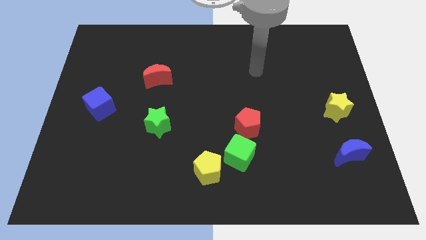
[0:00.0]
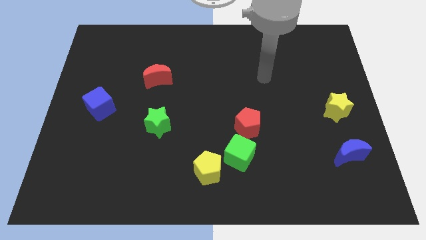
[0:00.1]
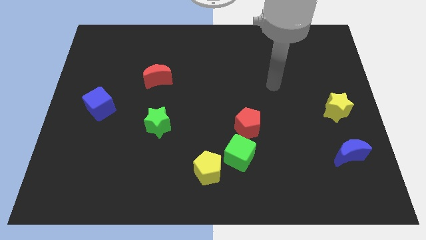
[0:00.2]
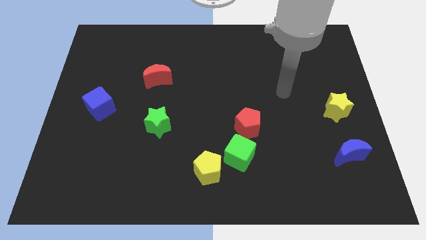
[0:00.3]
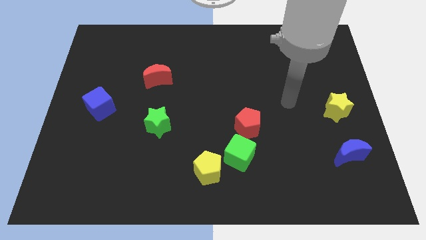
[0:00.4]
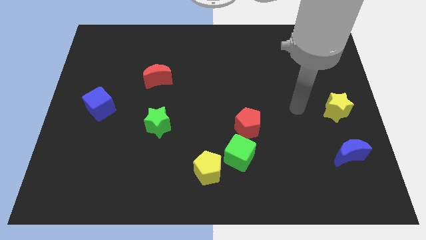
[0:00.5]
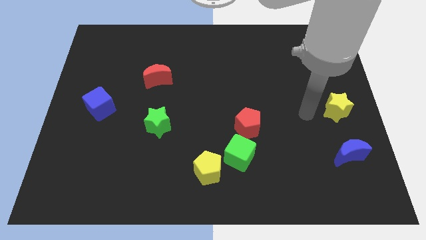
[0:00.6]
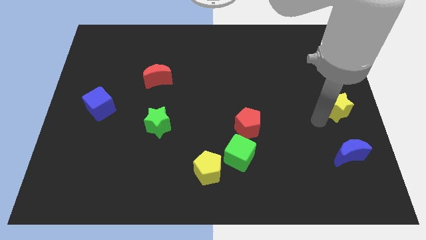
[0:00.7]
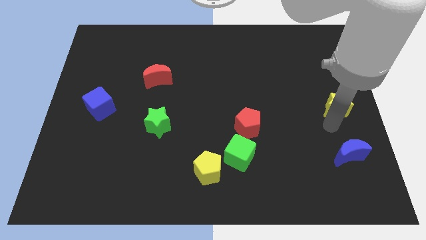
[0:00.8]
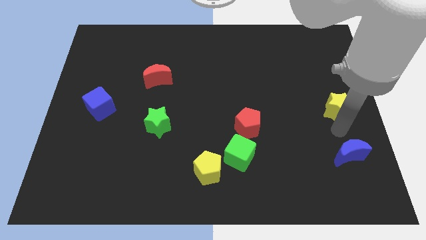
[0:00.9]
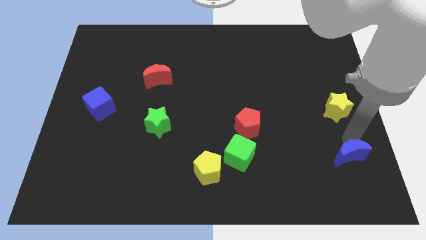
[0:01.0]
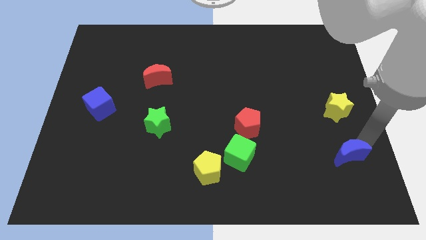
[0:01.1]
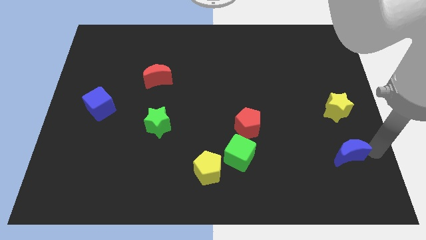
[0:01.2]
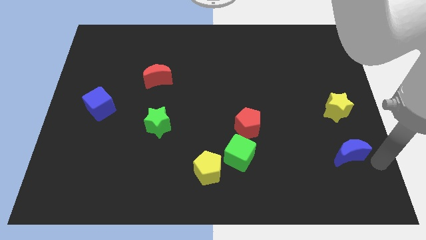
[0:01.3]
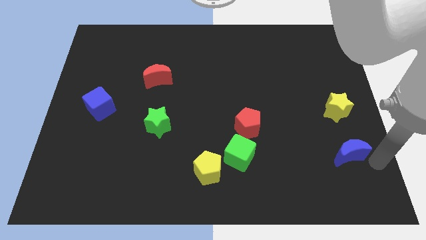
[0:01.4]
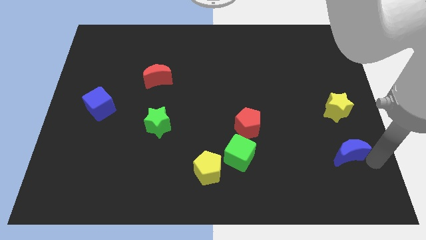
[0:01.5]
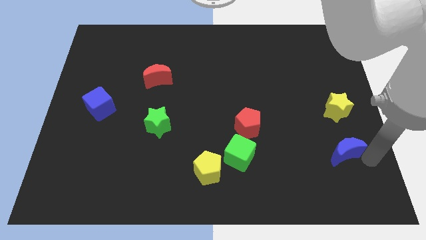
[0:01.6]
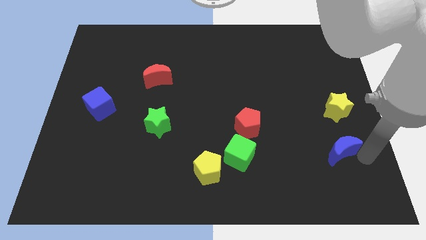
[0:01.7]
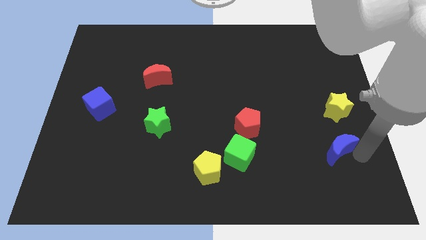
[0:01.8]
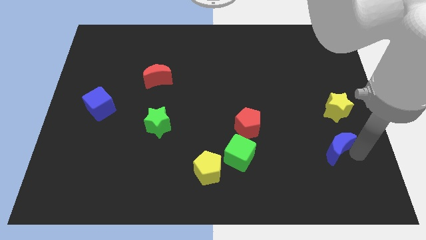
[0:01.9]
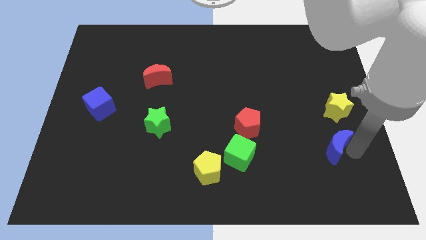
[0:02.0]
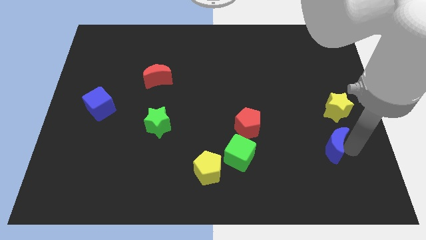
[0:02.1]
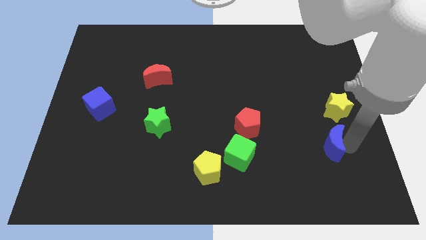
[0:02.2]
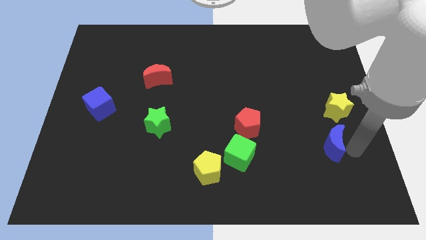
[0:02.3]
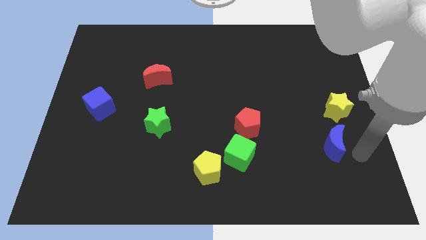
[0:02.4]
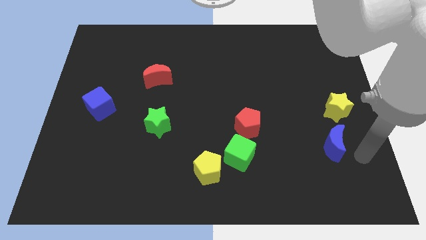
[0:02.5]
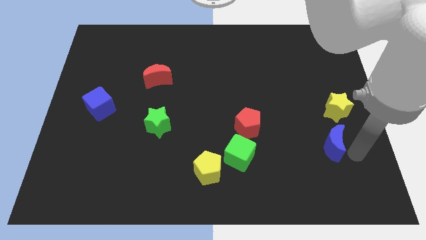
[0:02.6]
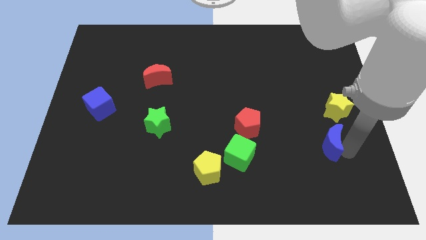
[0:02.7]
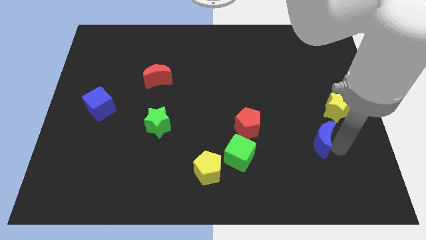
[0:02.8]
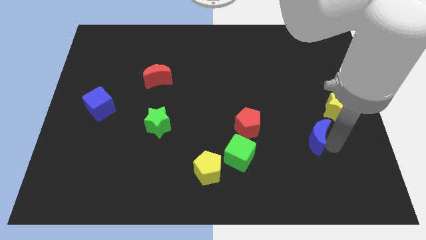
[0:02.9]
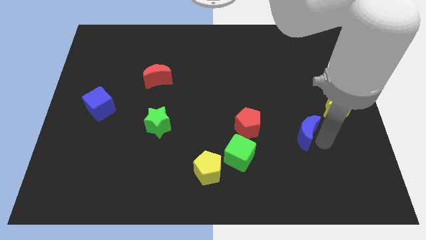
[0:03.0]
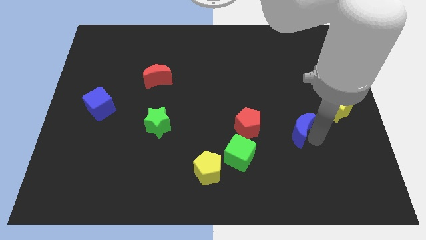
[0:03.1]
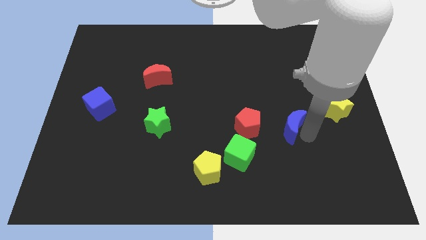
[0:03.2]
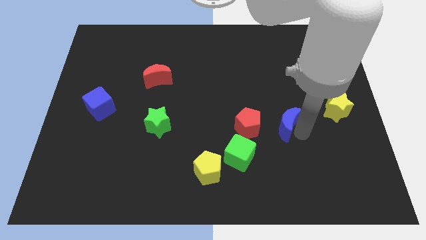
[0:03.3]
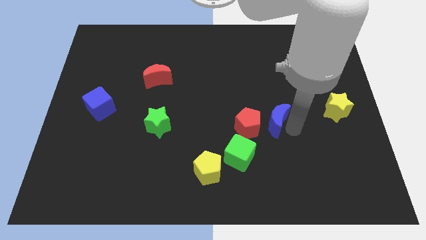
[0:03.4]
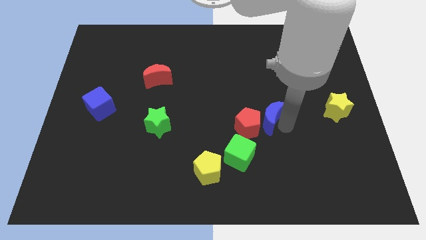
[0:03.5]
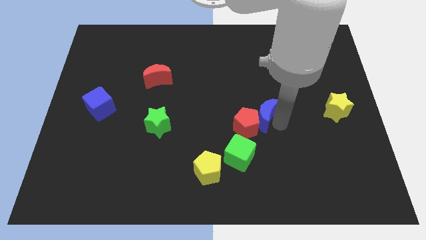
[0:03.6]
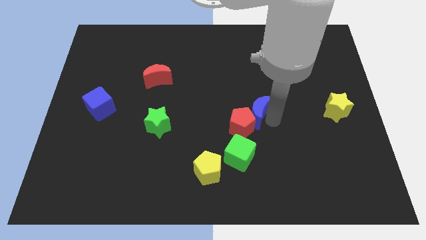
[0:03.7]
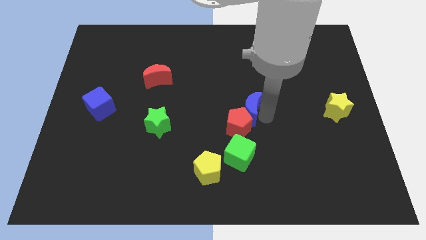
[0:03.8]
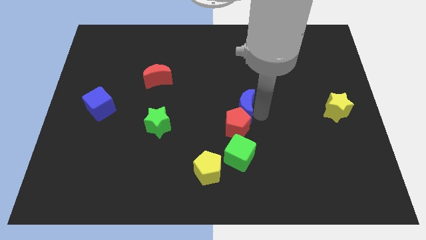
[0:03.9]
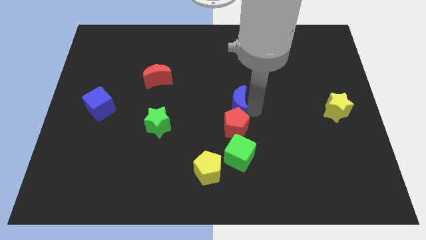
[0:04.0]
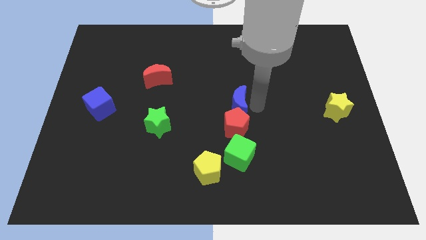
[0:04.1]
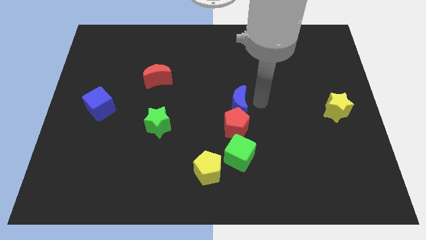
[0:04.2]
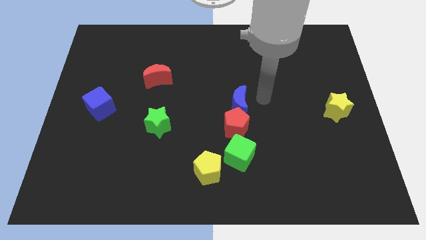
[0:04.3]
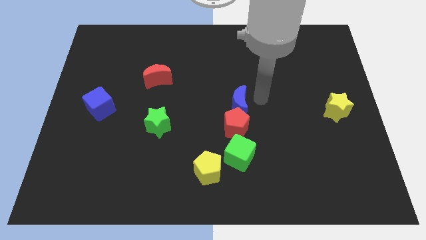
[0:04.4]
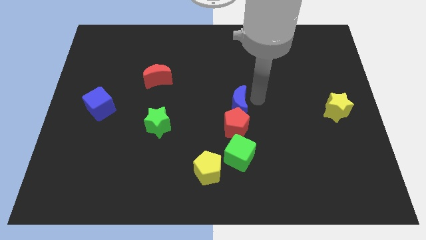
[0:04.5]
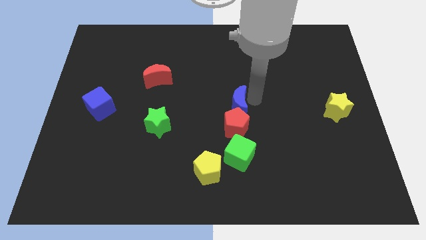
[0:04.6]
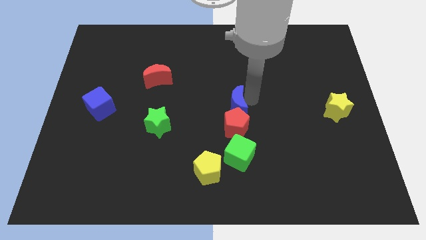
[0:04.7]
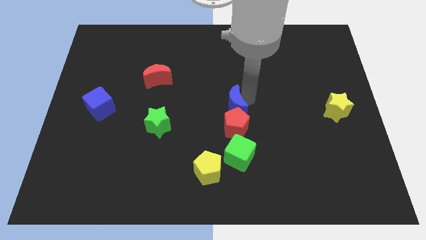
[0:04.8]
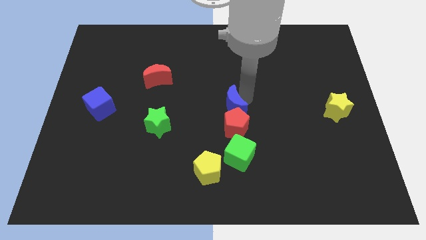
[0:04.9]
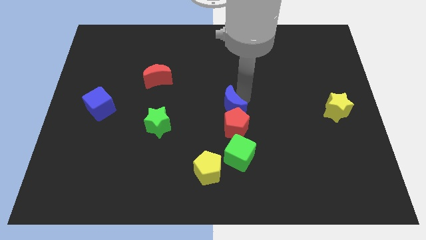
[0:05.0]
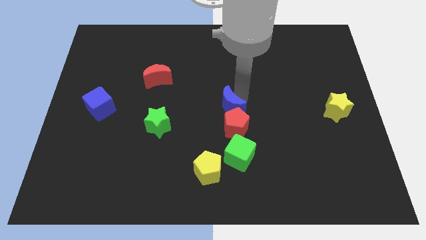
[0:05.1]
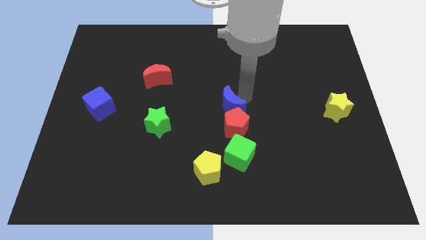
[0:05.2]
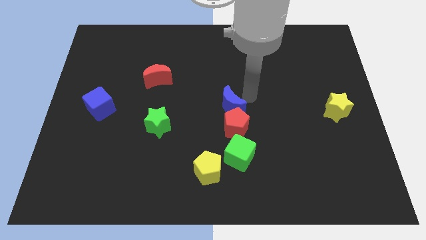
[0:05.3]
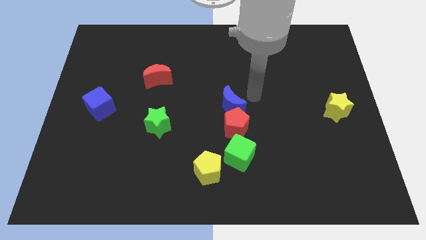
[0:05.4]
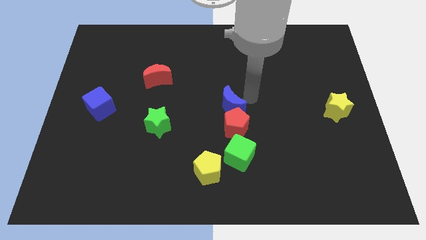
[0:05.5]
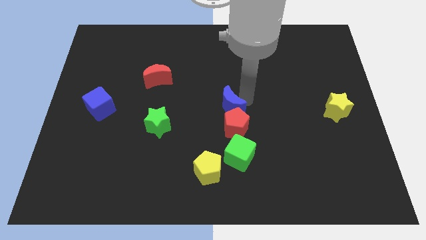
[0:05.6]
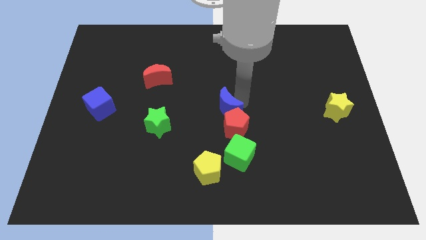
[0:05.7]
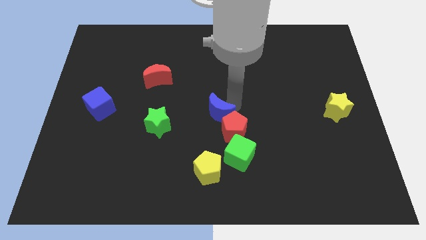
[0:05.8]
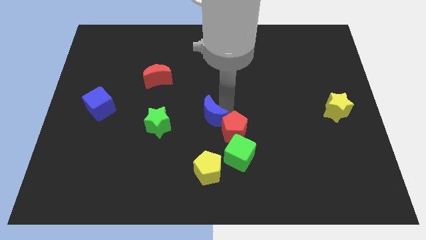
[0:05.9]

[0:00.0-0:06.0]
put the blue moon just left of the red pentagon

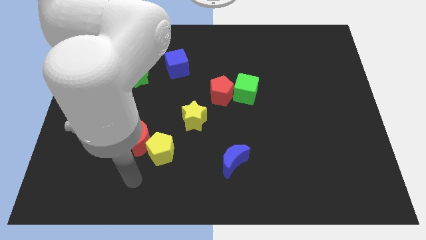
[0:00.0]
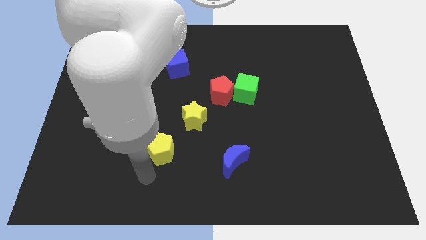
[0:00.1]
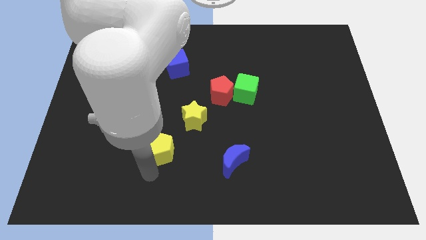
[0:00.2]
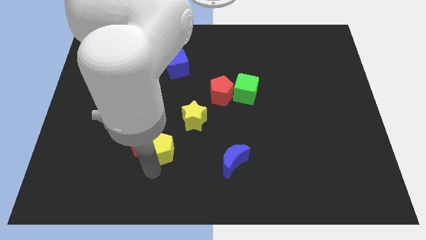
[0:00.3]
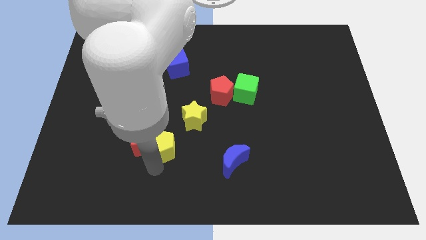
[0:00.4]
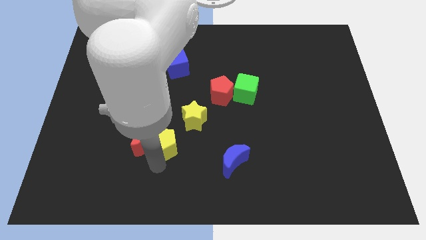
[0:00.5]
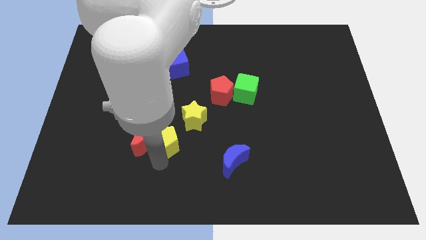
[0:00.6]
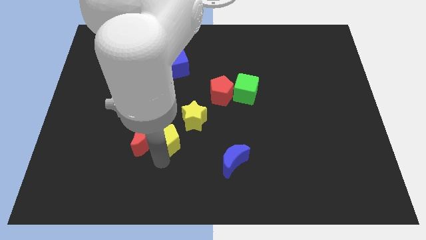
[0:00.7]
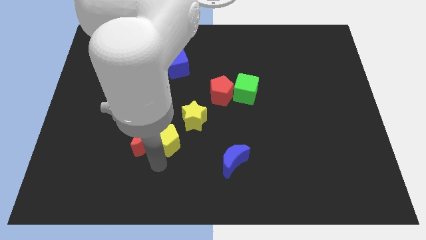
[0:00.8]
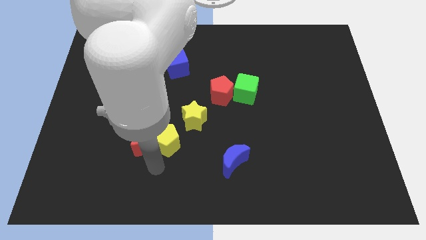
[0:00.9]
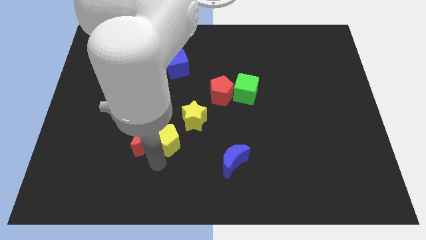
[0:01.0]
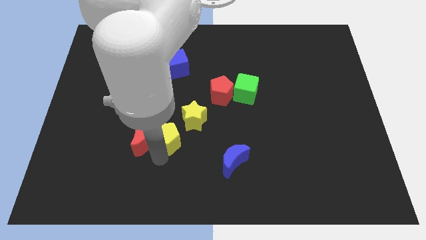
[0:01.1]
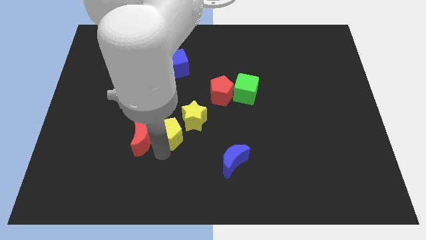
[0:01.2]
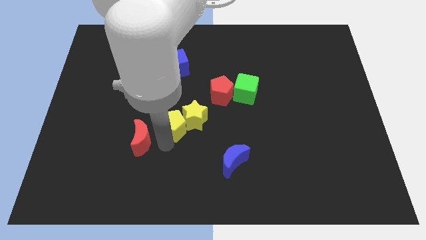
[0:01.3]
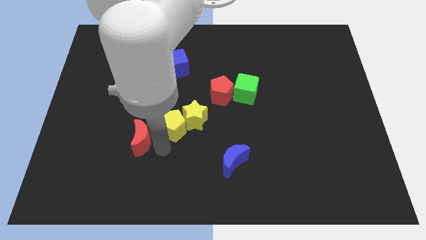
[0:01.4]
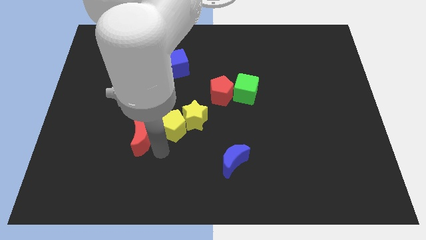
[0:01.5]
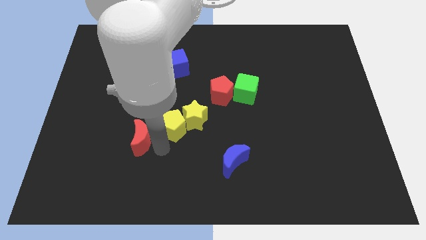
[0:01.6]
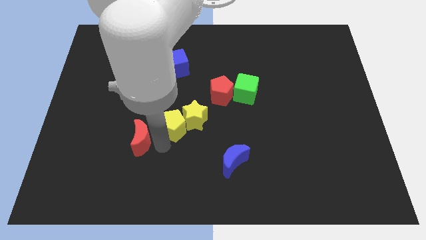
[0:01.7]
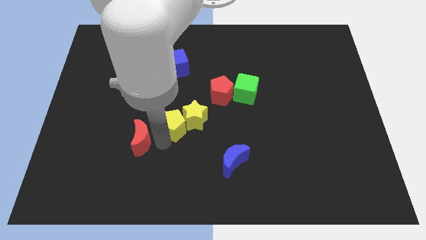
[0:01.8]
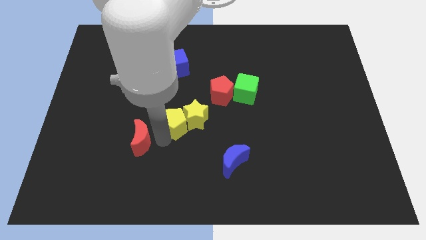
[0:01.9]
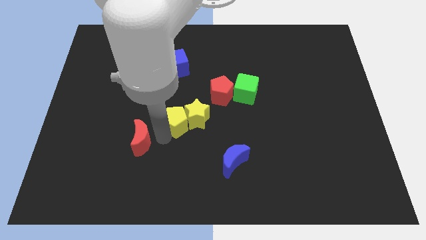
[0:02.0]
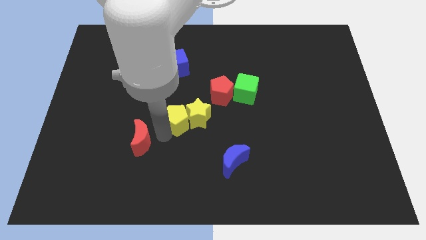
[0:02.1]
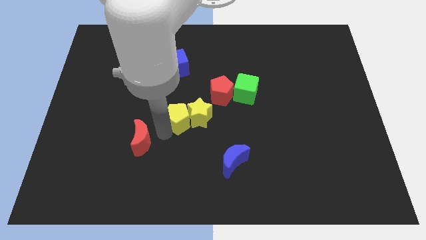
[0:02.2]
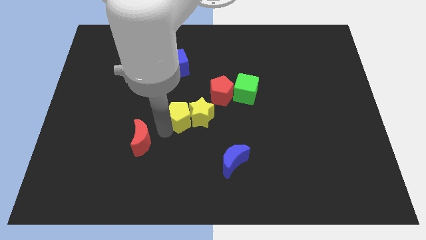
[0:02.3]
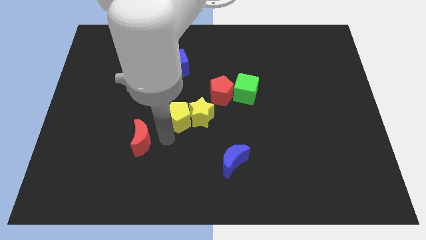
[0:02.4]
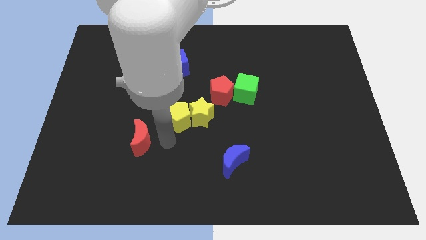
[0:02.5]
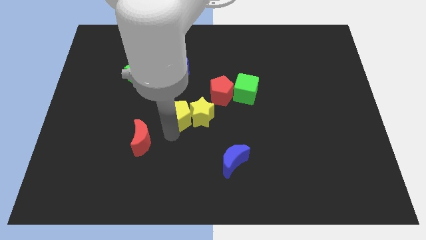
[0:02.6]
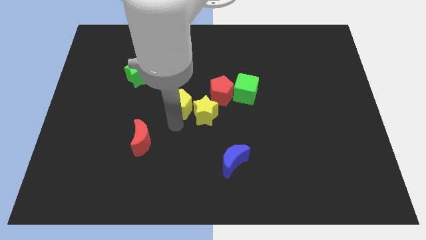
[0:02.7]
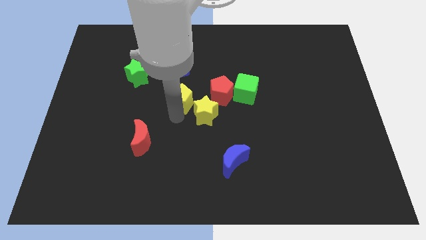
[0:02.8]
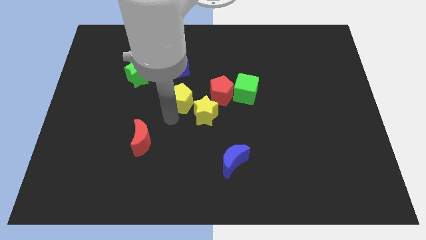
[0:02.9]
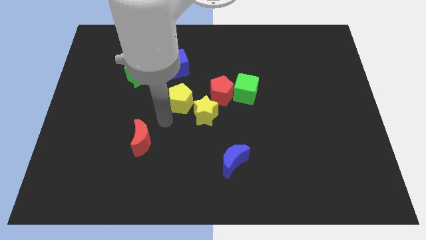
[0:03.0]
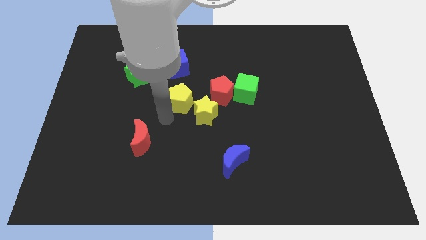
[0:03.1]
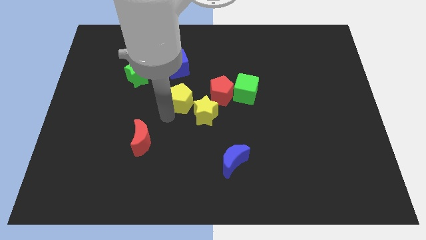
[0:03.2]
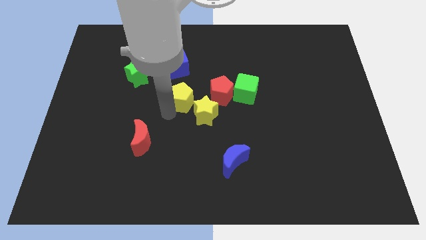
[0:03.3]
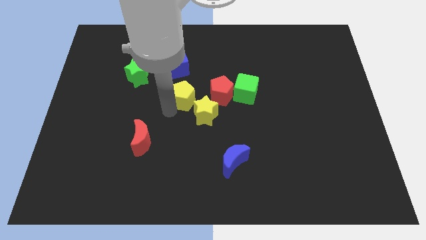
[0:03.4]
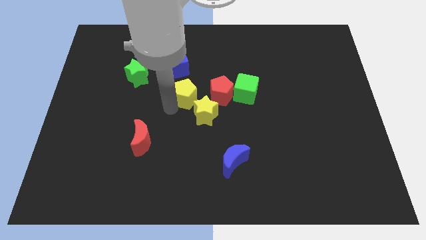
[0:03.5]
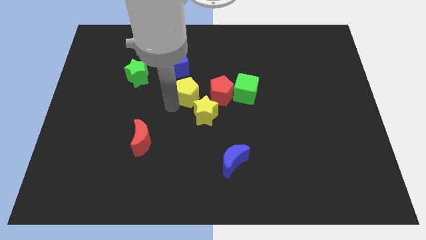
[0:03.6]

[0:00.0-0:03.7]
push the yellow pentagon diagonally down and to the right of the blue cube
